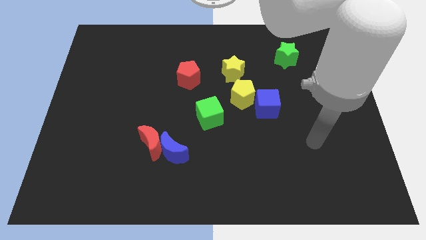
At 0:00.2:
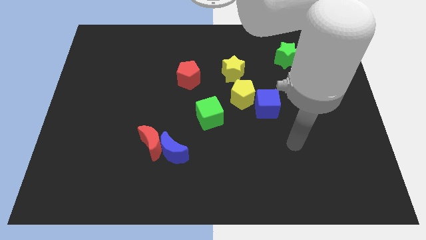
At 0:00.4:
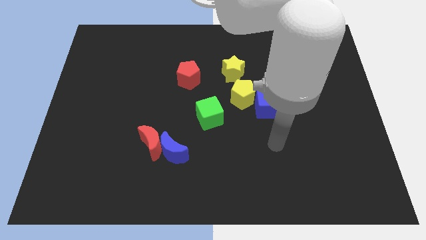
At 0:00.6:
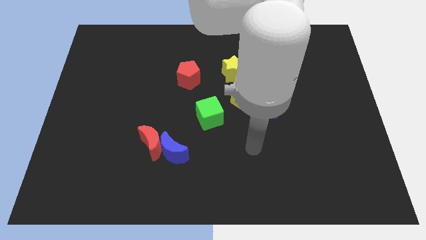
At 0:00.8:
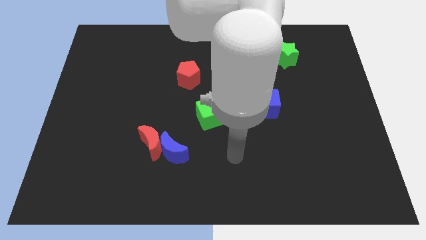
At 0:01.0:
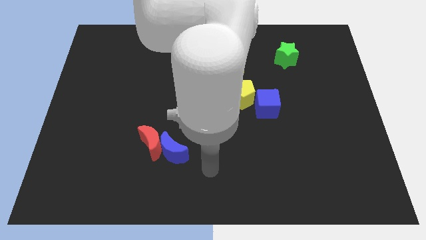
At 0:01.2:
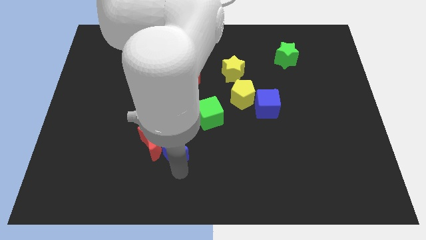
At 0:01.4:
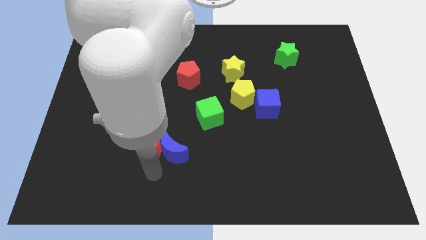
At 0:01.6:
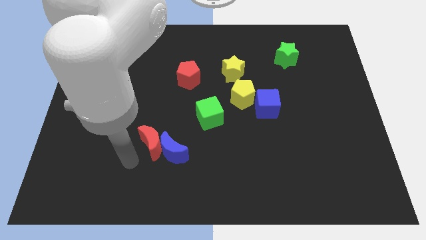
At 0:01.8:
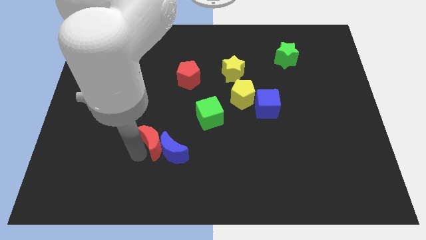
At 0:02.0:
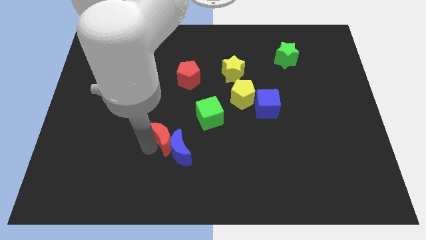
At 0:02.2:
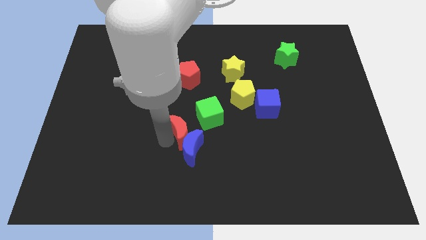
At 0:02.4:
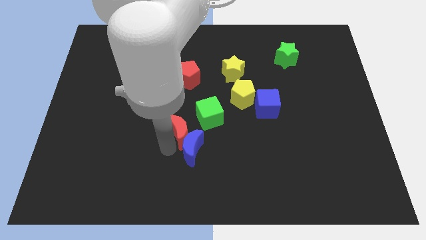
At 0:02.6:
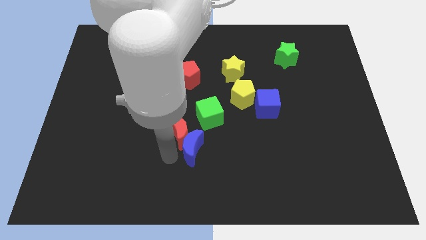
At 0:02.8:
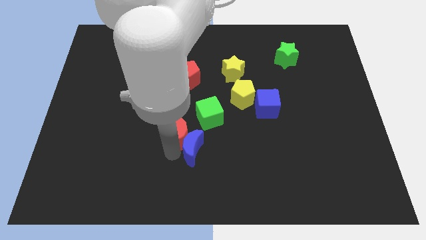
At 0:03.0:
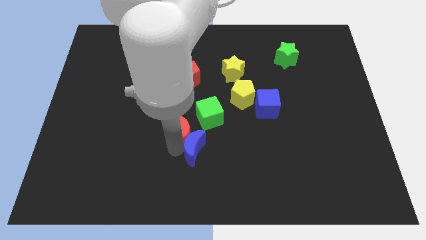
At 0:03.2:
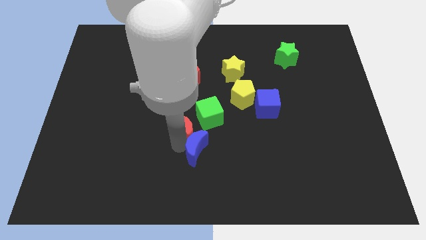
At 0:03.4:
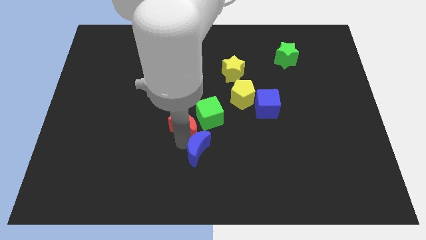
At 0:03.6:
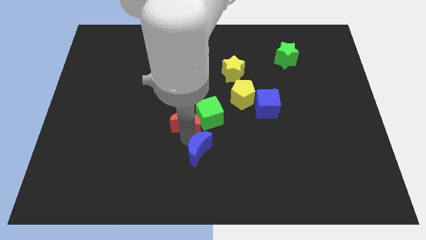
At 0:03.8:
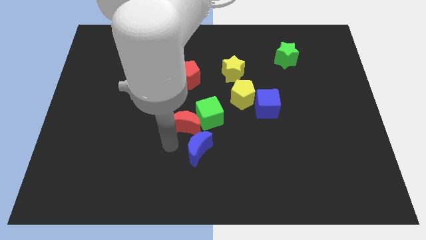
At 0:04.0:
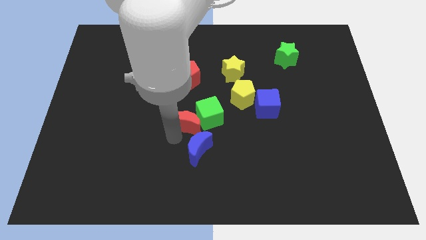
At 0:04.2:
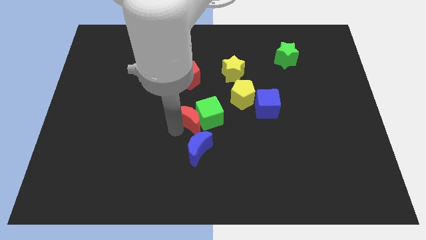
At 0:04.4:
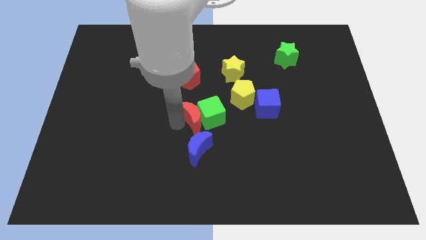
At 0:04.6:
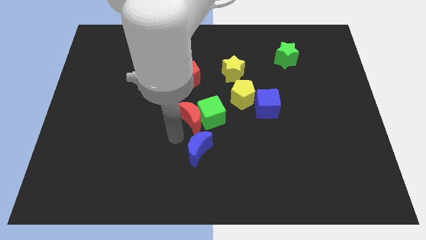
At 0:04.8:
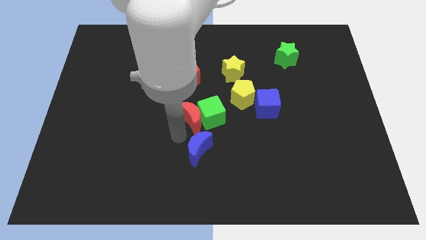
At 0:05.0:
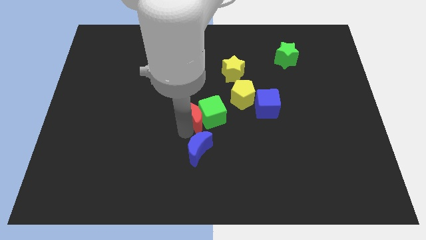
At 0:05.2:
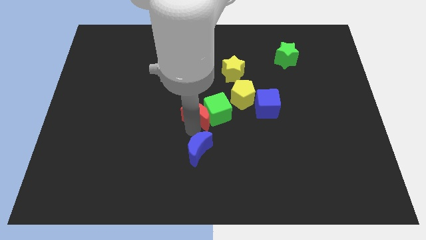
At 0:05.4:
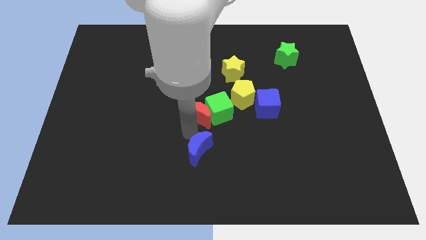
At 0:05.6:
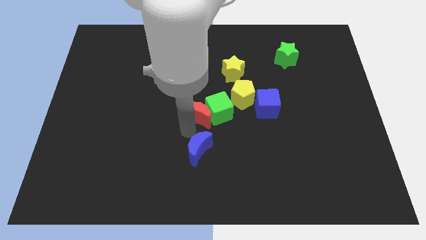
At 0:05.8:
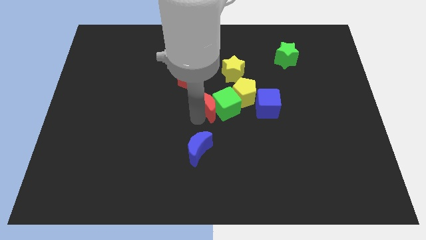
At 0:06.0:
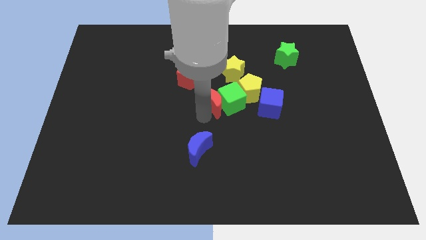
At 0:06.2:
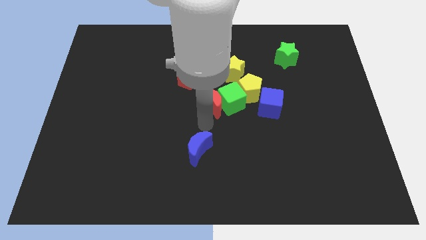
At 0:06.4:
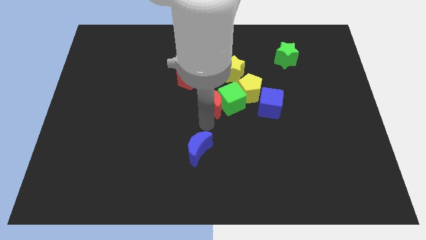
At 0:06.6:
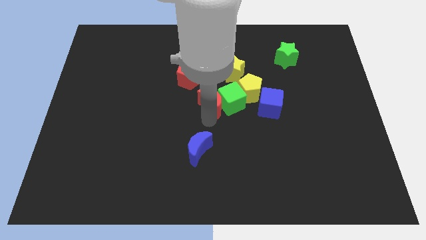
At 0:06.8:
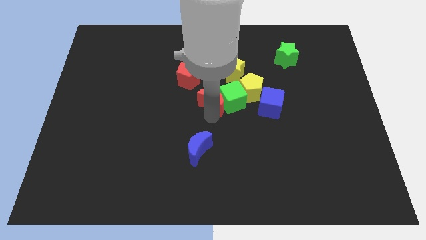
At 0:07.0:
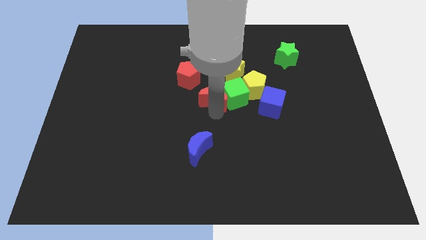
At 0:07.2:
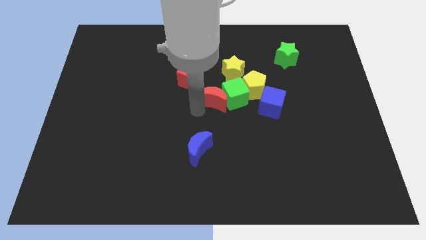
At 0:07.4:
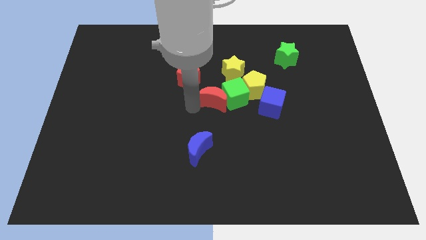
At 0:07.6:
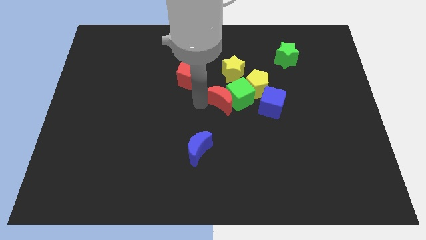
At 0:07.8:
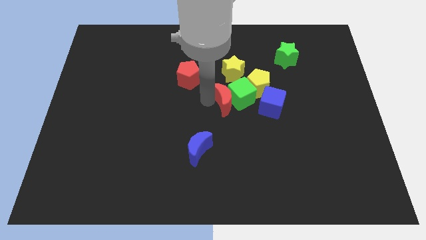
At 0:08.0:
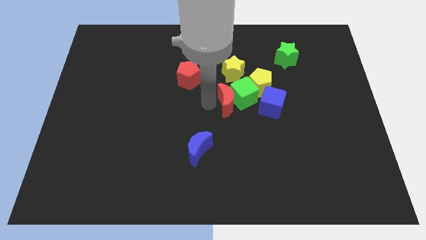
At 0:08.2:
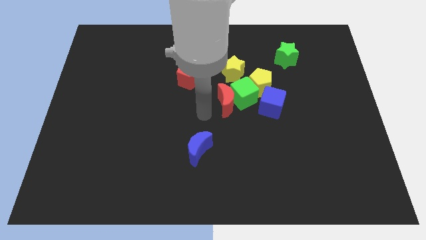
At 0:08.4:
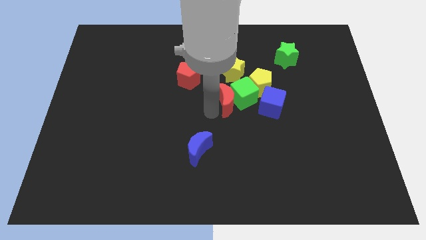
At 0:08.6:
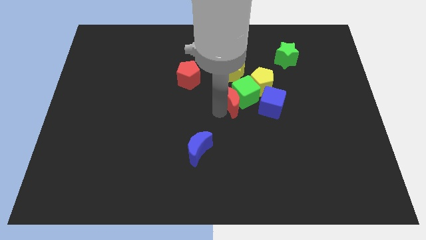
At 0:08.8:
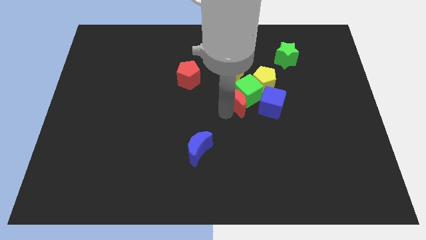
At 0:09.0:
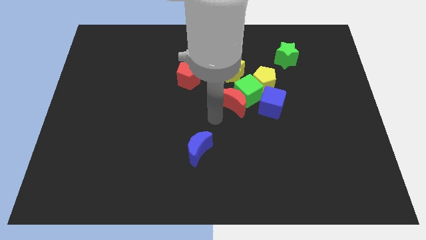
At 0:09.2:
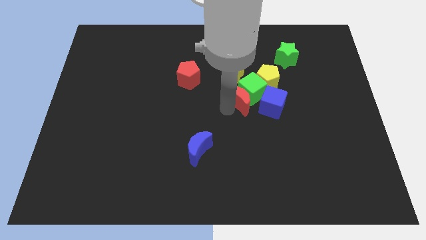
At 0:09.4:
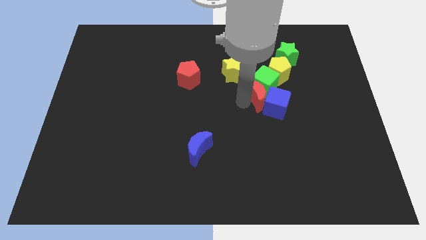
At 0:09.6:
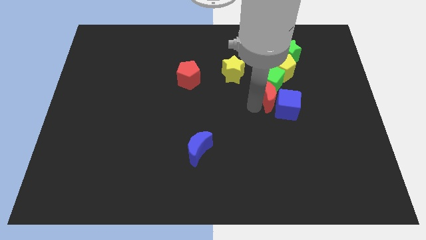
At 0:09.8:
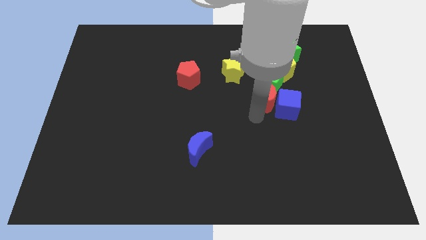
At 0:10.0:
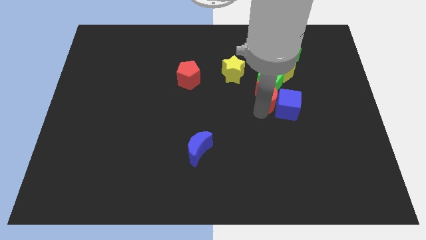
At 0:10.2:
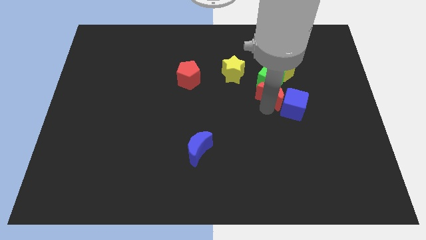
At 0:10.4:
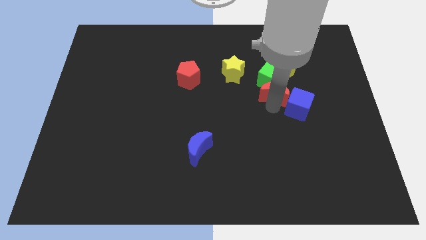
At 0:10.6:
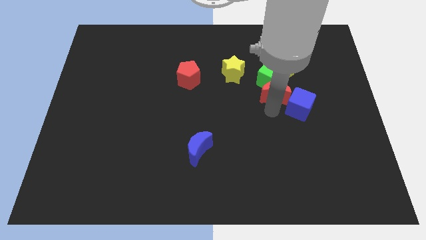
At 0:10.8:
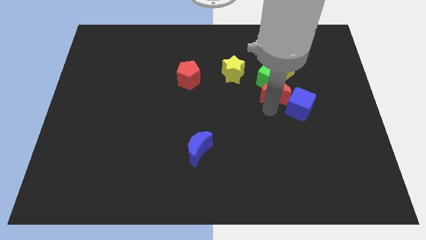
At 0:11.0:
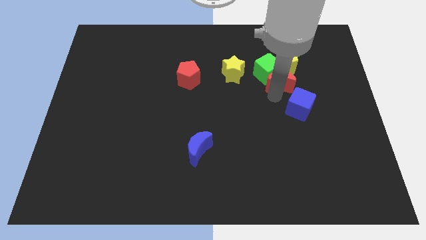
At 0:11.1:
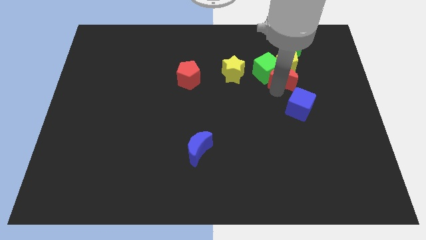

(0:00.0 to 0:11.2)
push the red moon next to the yellow pentagon

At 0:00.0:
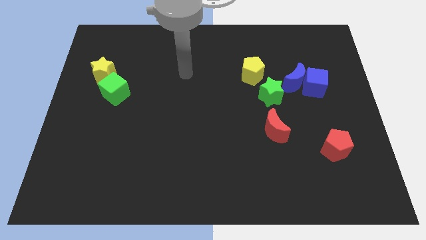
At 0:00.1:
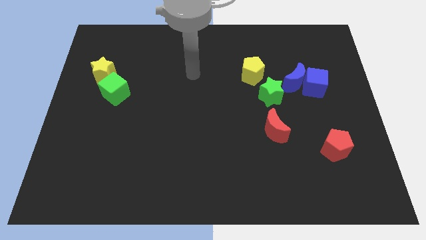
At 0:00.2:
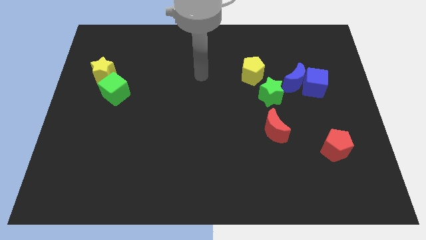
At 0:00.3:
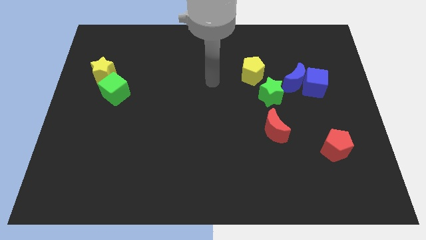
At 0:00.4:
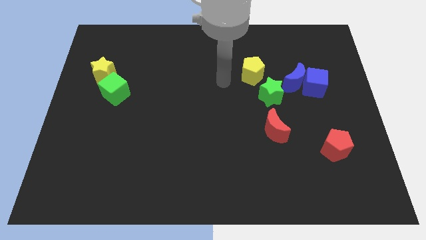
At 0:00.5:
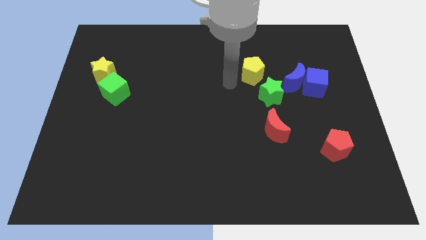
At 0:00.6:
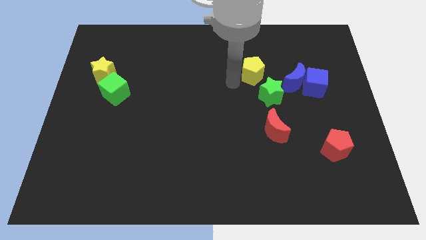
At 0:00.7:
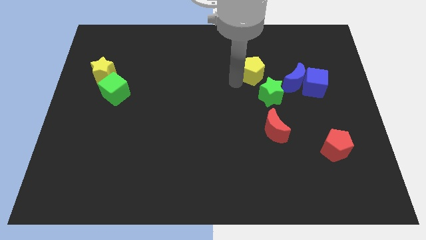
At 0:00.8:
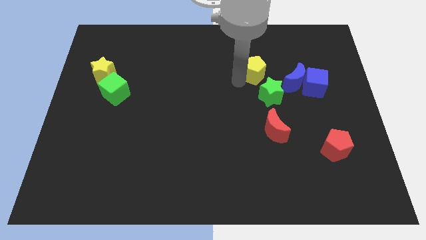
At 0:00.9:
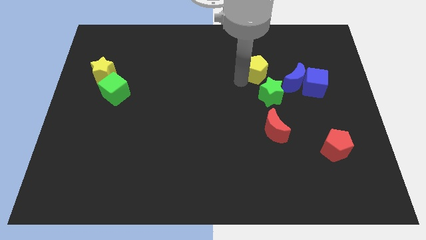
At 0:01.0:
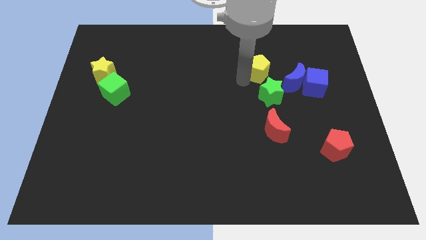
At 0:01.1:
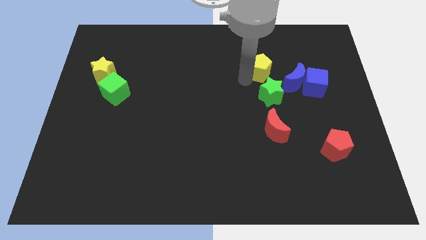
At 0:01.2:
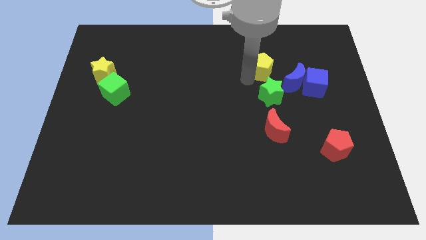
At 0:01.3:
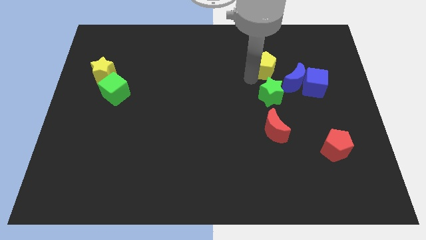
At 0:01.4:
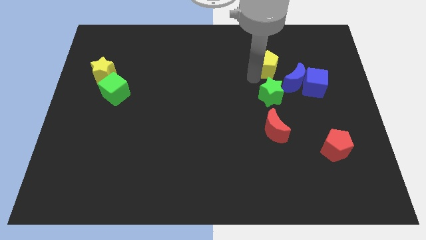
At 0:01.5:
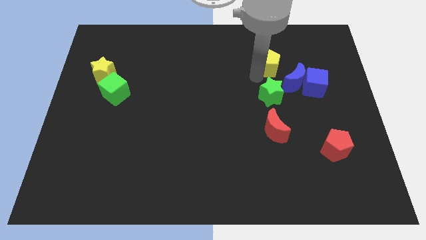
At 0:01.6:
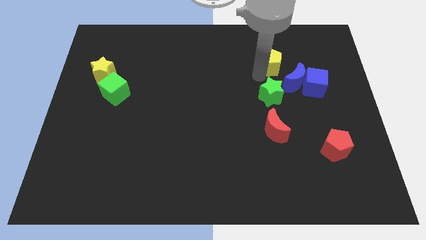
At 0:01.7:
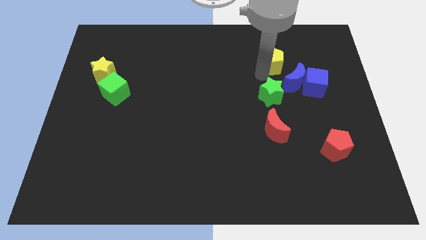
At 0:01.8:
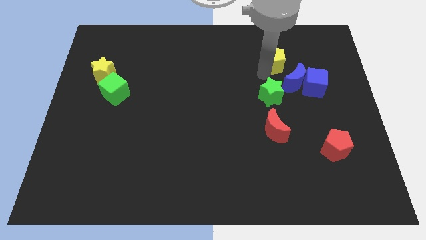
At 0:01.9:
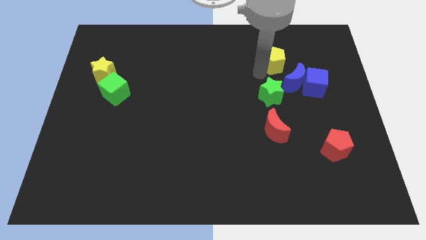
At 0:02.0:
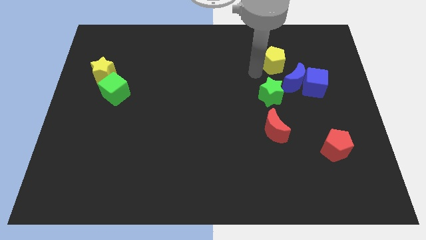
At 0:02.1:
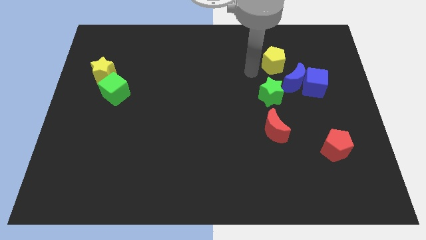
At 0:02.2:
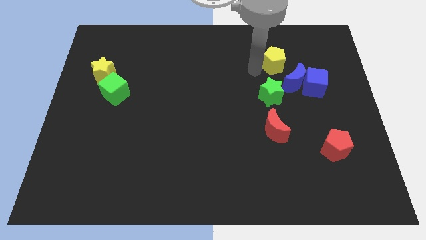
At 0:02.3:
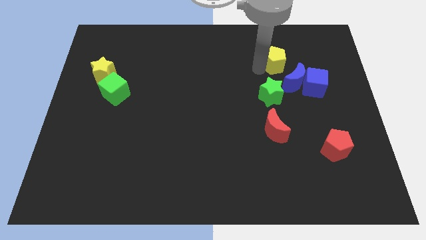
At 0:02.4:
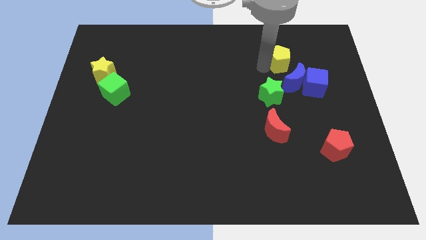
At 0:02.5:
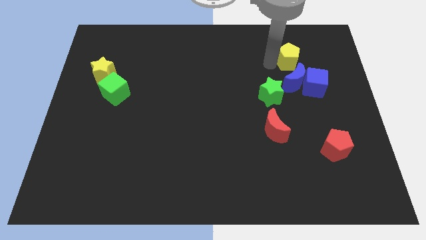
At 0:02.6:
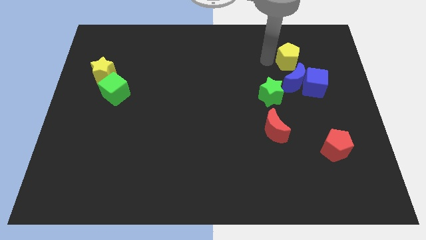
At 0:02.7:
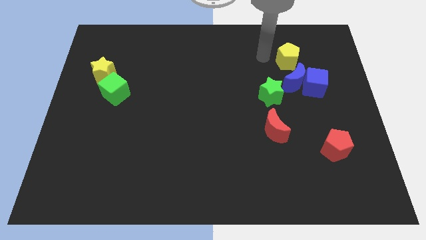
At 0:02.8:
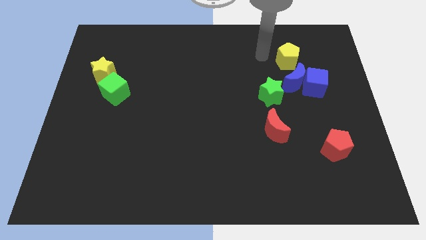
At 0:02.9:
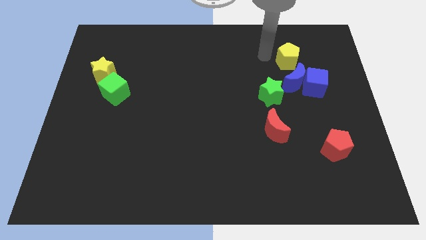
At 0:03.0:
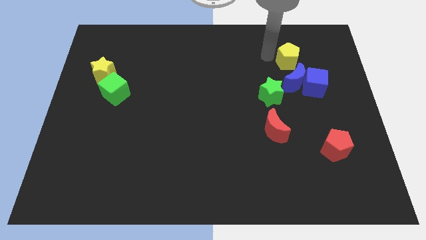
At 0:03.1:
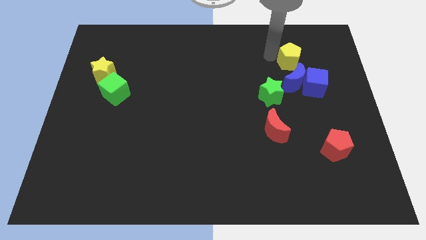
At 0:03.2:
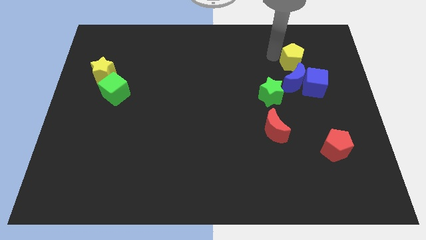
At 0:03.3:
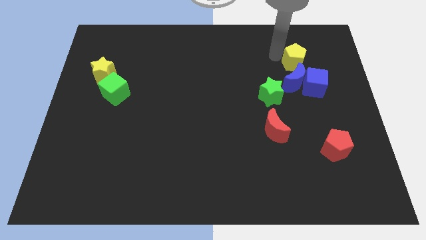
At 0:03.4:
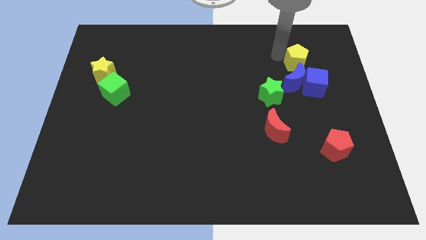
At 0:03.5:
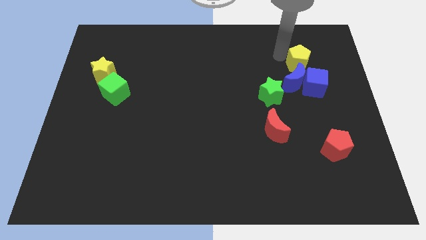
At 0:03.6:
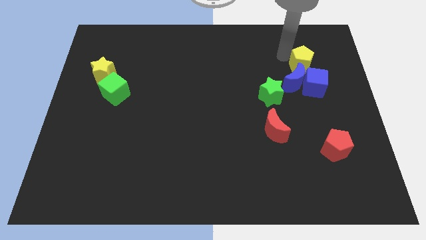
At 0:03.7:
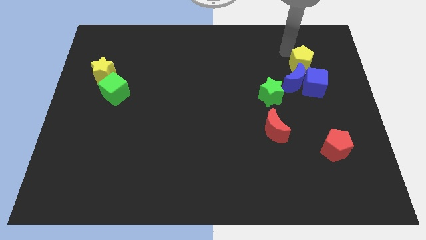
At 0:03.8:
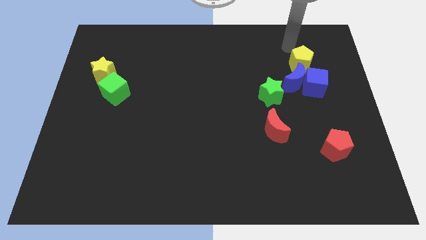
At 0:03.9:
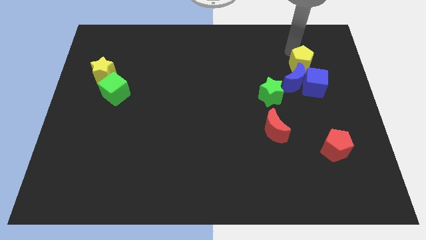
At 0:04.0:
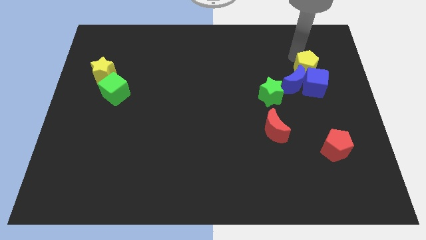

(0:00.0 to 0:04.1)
move the yellow pentagon close to the blue cube
